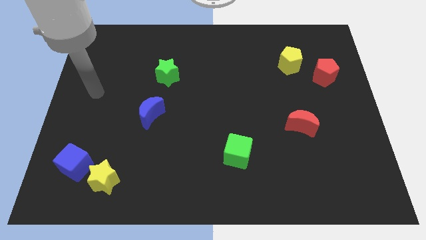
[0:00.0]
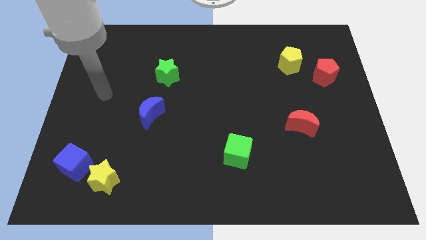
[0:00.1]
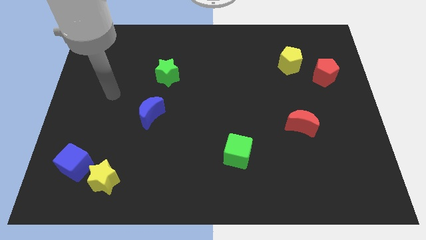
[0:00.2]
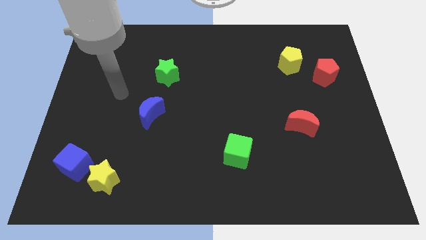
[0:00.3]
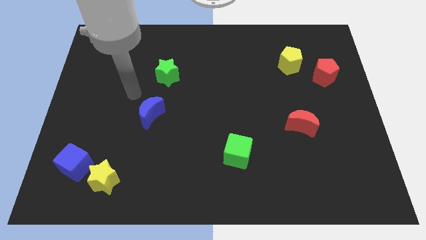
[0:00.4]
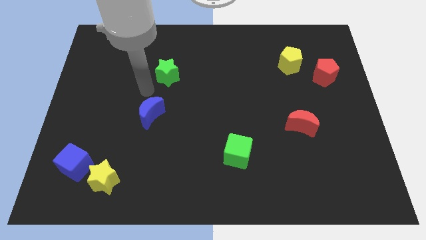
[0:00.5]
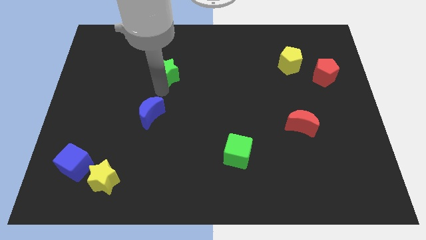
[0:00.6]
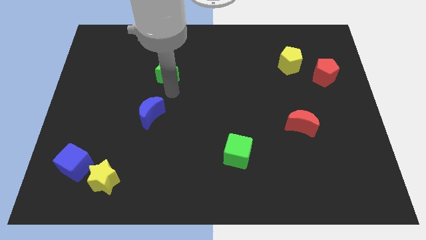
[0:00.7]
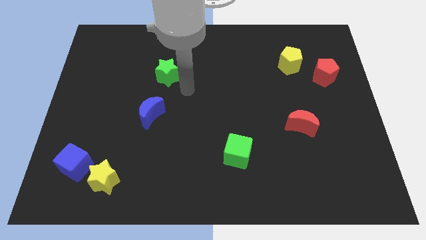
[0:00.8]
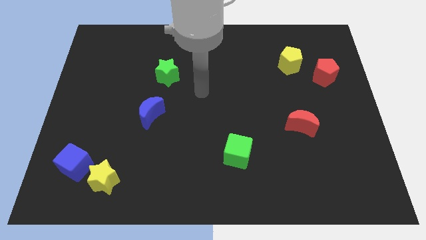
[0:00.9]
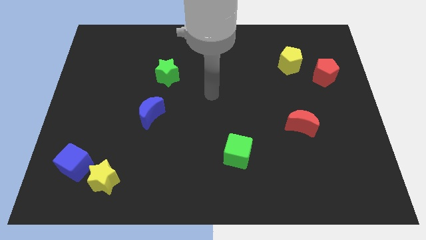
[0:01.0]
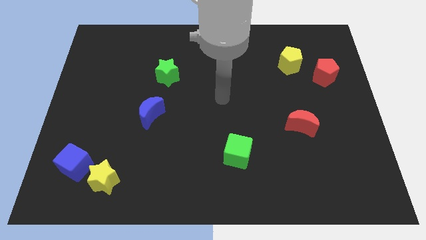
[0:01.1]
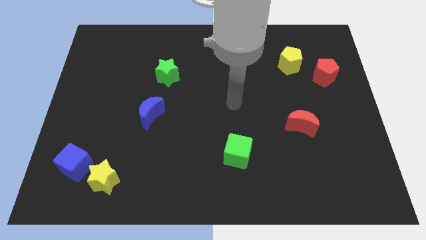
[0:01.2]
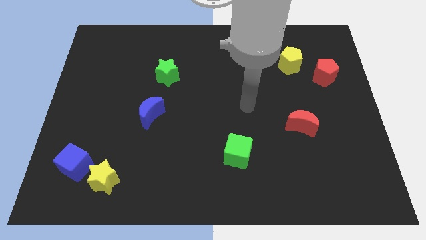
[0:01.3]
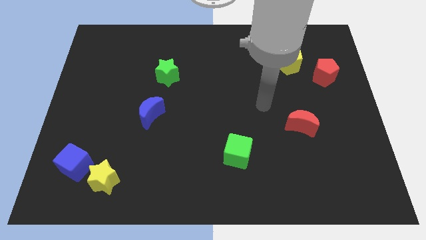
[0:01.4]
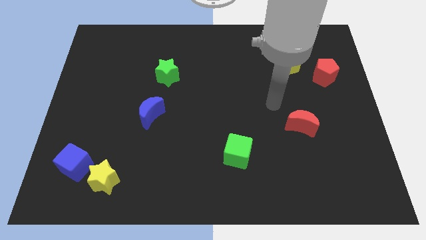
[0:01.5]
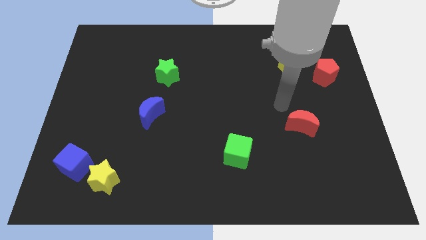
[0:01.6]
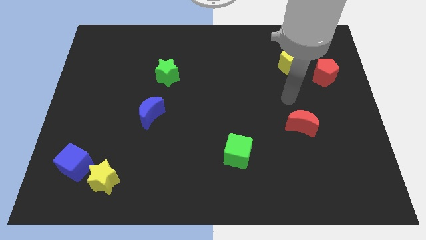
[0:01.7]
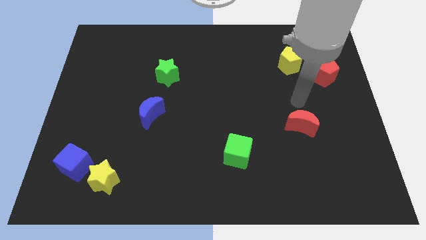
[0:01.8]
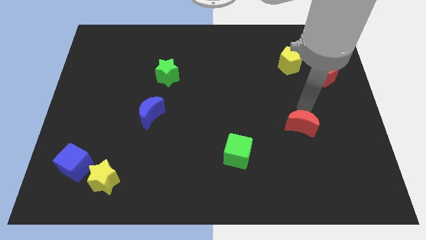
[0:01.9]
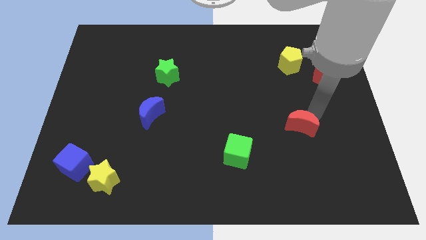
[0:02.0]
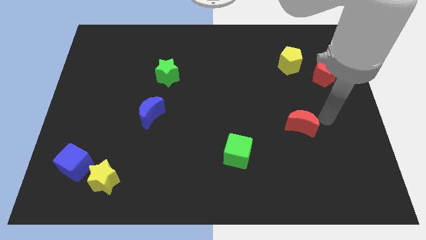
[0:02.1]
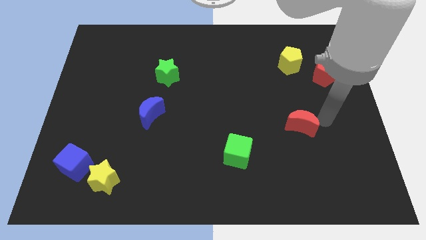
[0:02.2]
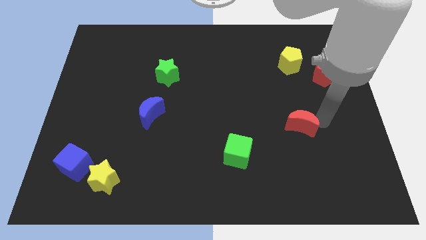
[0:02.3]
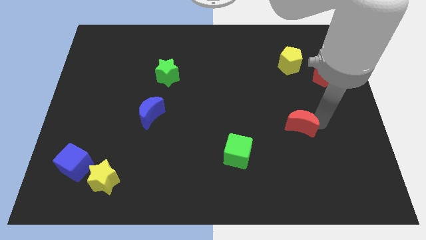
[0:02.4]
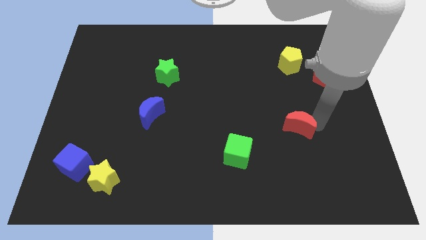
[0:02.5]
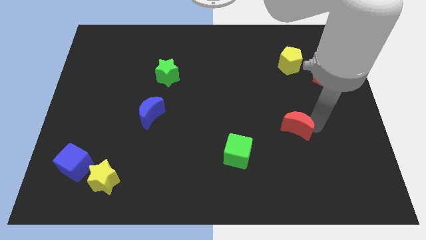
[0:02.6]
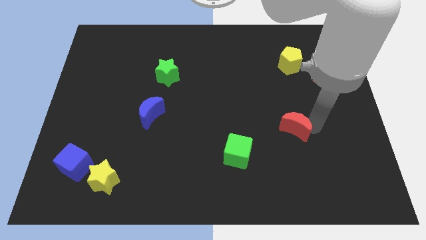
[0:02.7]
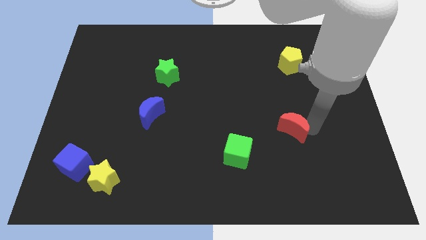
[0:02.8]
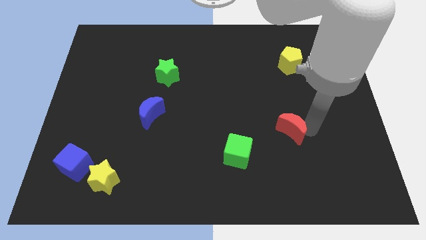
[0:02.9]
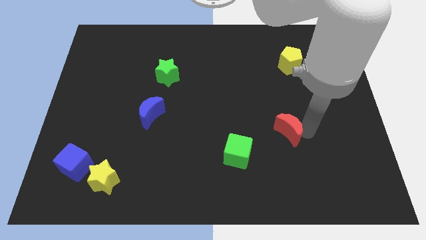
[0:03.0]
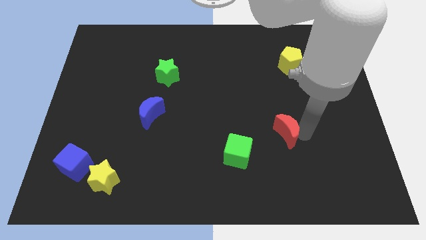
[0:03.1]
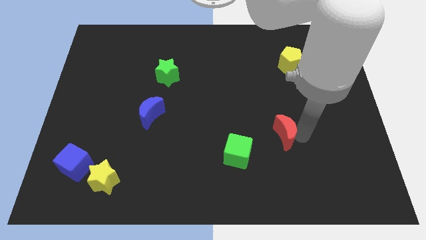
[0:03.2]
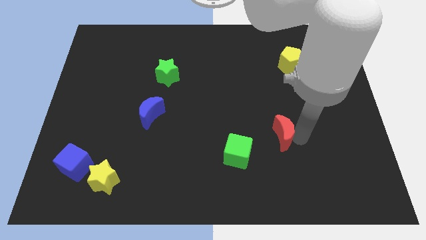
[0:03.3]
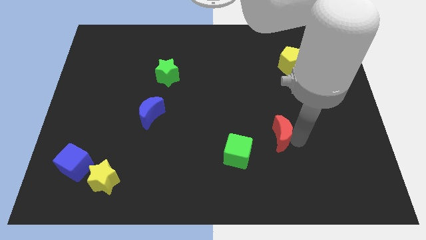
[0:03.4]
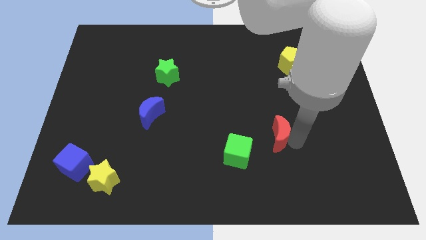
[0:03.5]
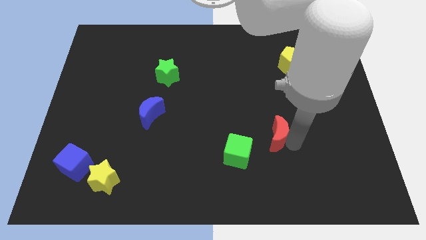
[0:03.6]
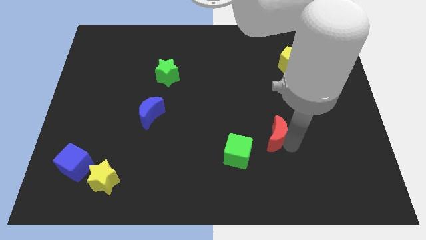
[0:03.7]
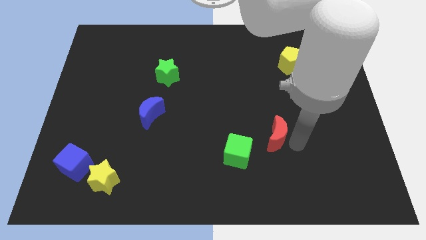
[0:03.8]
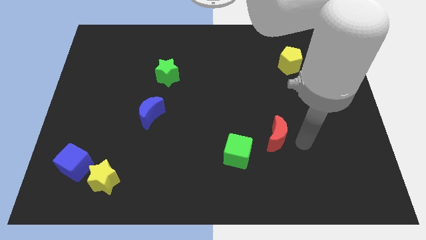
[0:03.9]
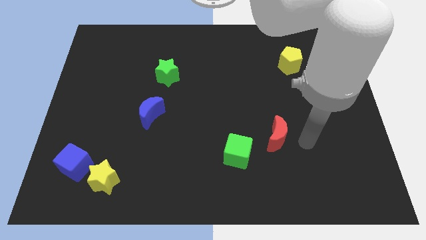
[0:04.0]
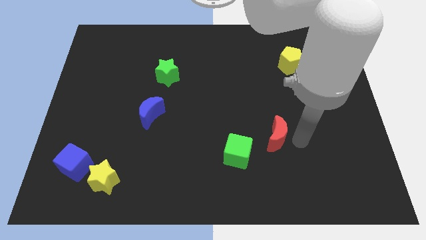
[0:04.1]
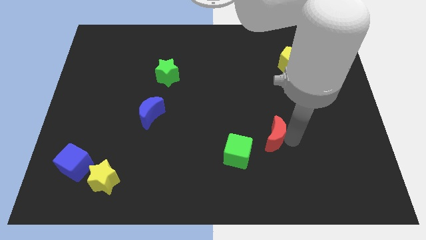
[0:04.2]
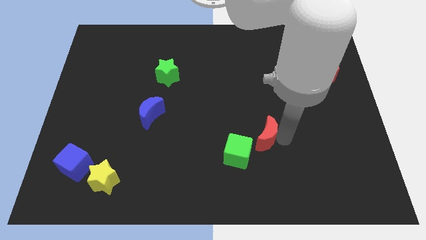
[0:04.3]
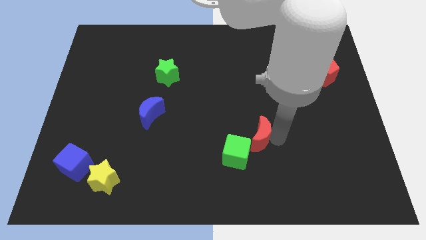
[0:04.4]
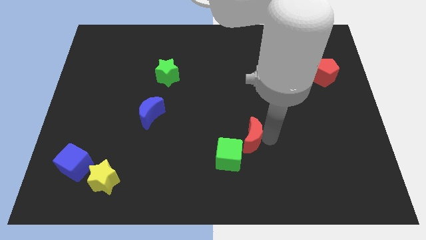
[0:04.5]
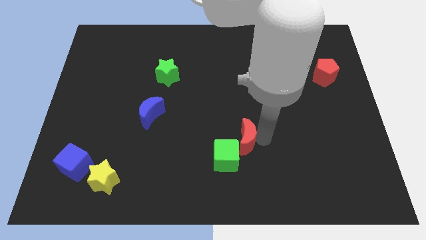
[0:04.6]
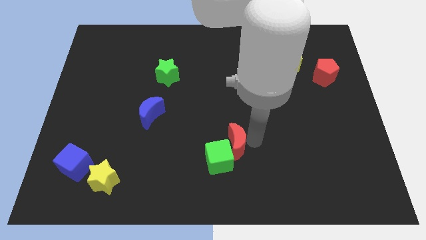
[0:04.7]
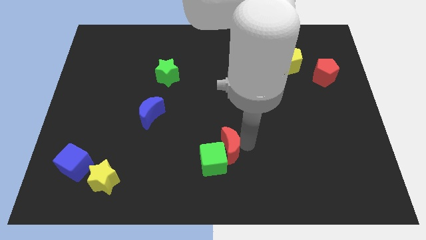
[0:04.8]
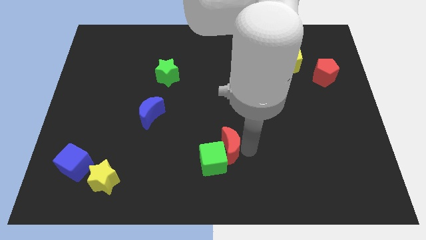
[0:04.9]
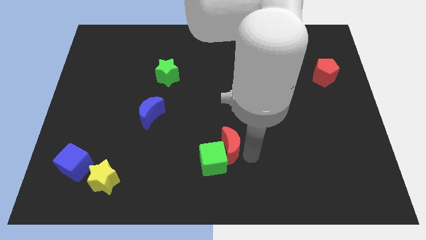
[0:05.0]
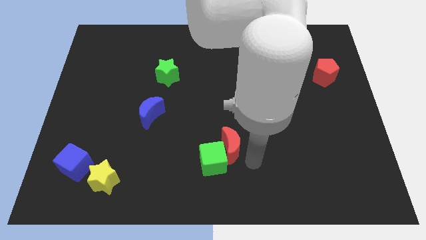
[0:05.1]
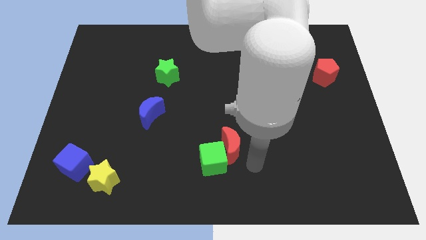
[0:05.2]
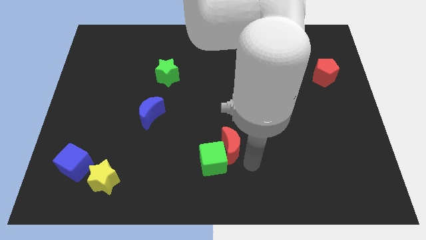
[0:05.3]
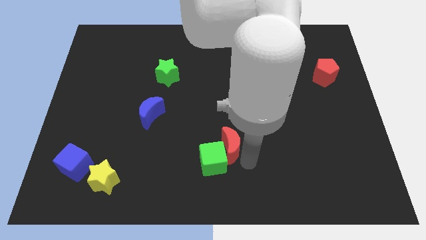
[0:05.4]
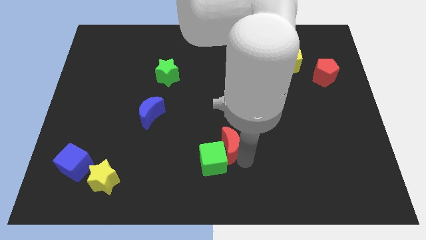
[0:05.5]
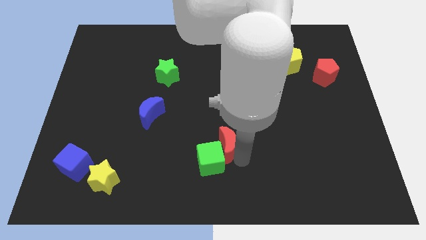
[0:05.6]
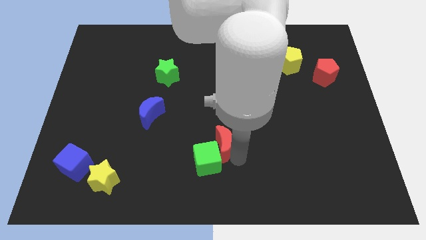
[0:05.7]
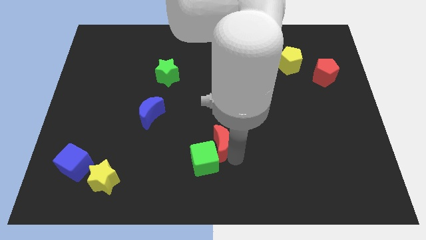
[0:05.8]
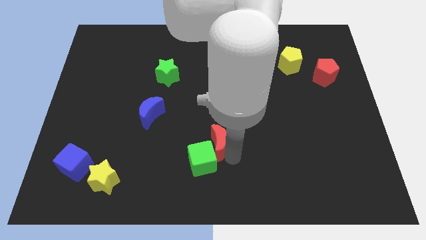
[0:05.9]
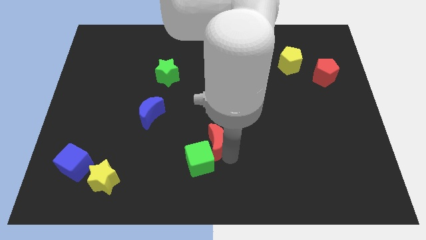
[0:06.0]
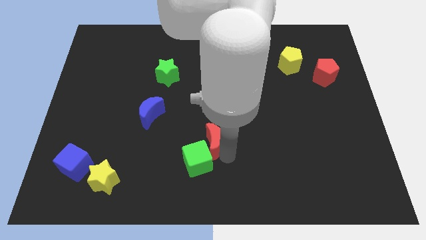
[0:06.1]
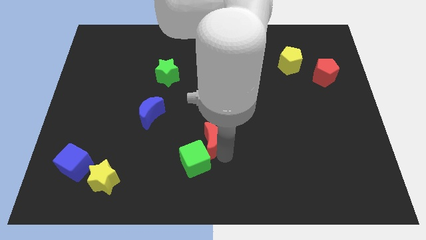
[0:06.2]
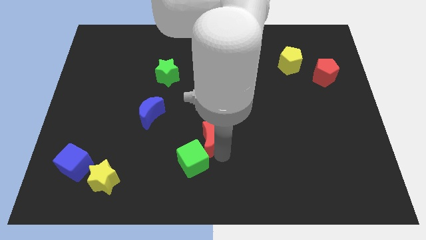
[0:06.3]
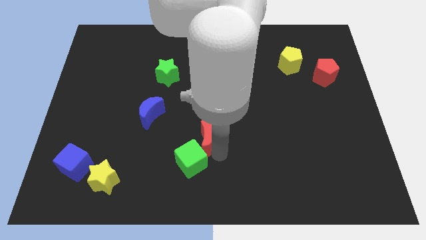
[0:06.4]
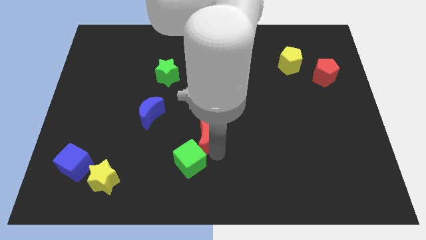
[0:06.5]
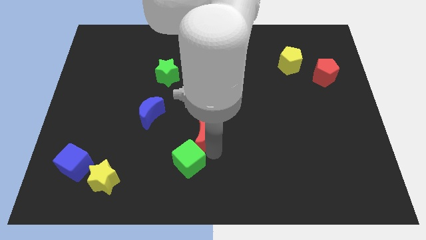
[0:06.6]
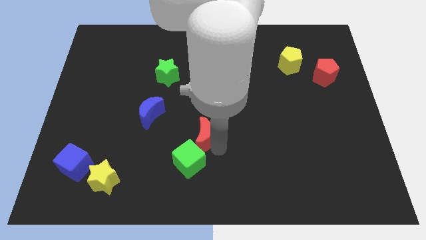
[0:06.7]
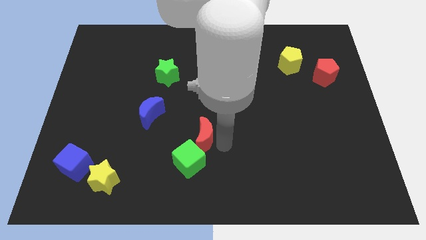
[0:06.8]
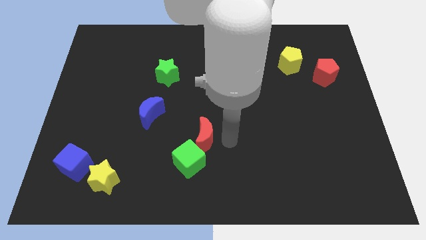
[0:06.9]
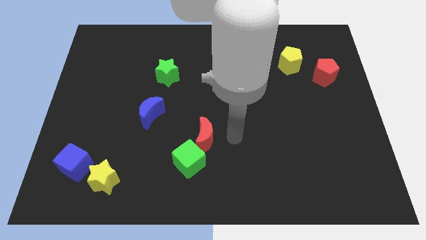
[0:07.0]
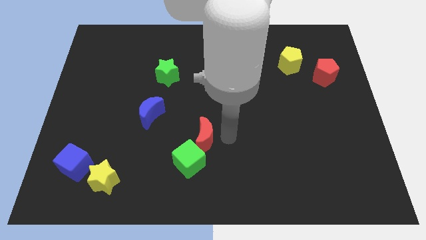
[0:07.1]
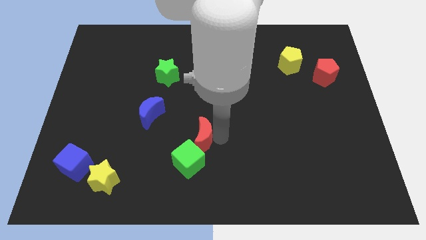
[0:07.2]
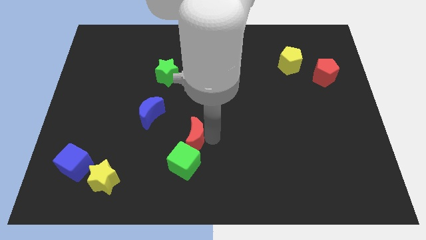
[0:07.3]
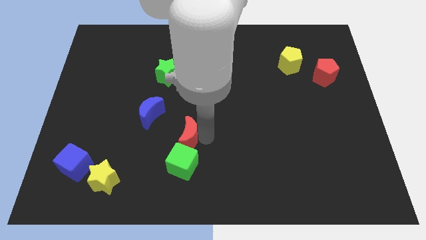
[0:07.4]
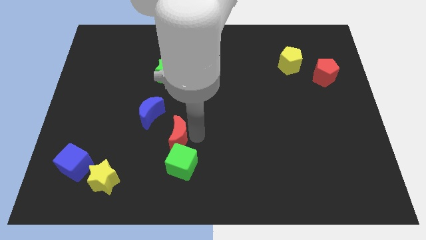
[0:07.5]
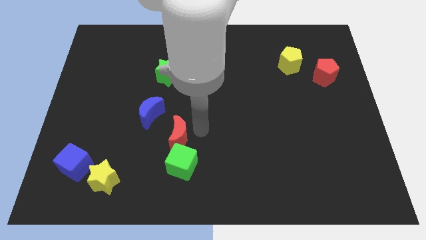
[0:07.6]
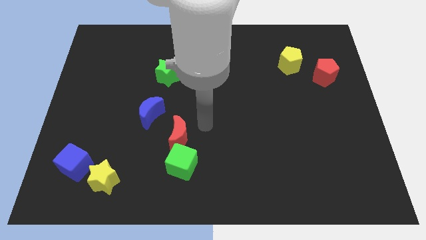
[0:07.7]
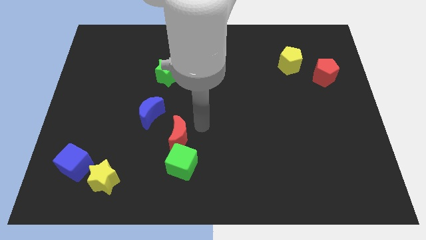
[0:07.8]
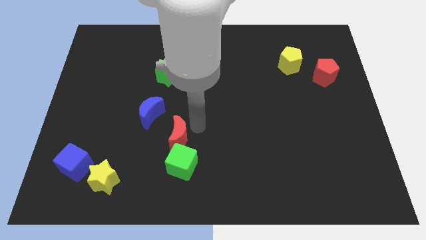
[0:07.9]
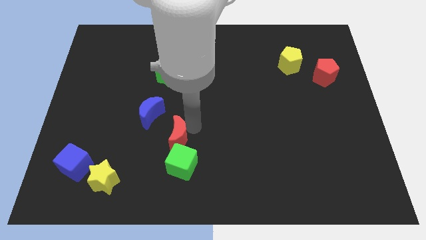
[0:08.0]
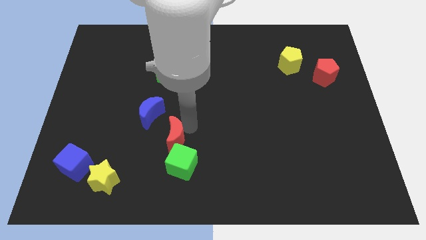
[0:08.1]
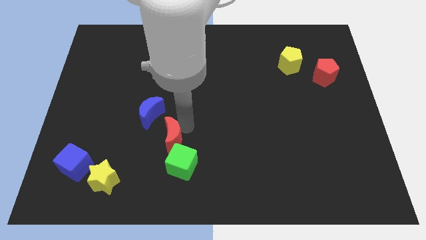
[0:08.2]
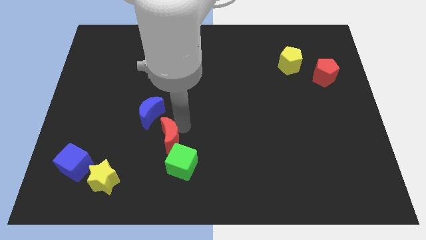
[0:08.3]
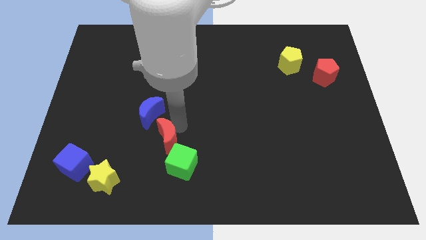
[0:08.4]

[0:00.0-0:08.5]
push the red moon below the blue moon
